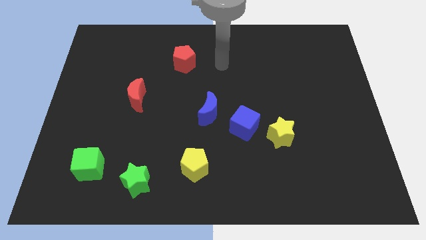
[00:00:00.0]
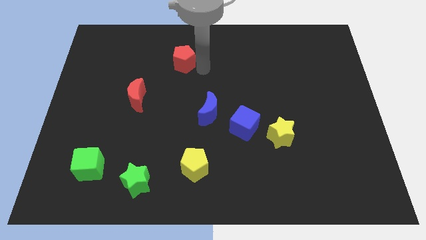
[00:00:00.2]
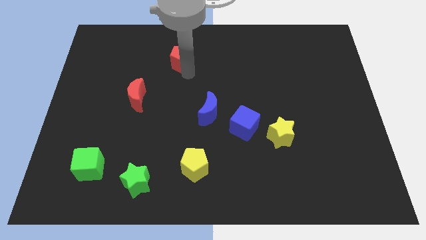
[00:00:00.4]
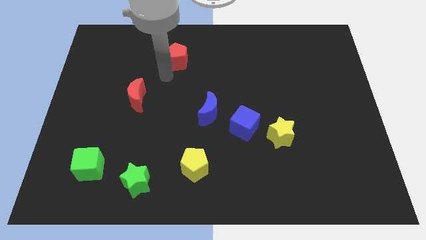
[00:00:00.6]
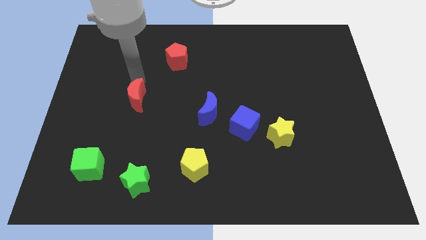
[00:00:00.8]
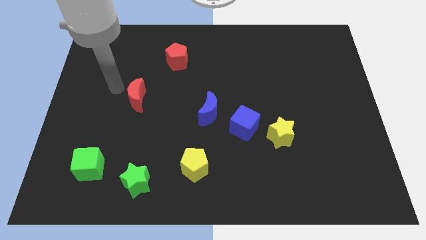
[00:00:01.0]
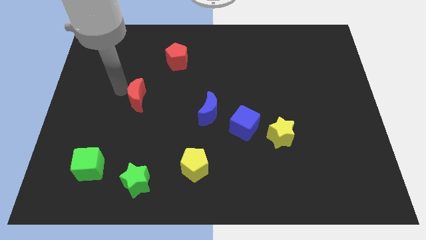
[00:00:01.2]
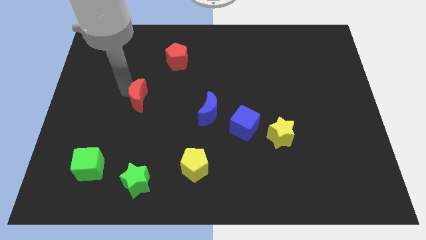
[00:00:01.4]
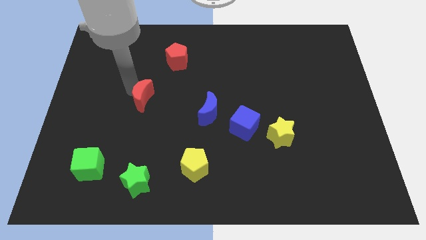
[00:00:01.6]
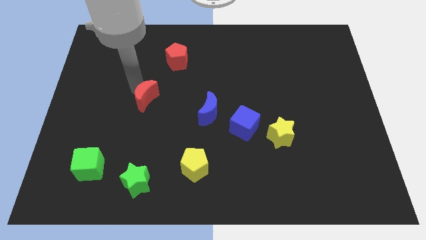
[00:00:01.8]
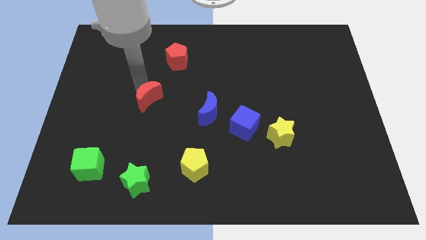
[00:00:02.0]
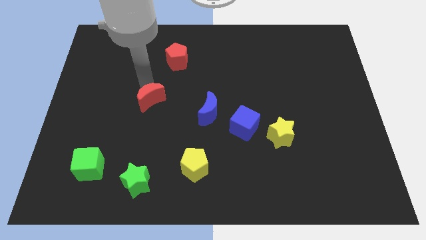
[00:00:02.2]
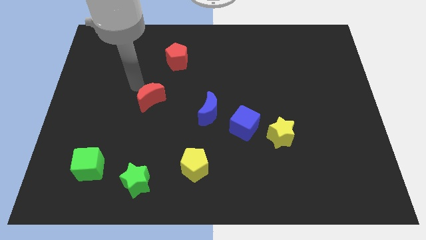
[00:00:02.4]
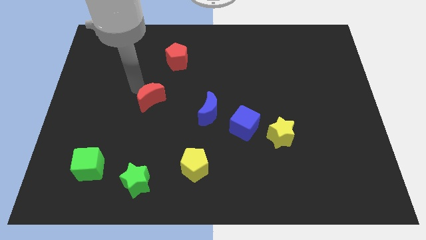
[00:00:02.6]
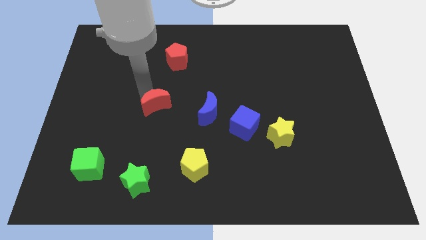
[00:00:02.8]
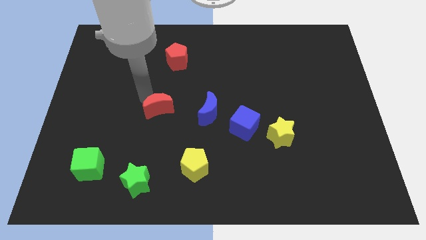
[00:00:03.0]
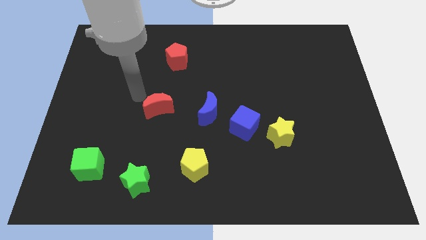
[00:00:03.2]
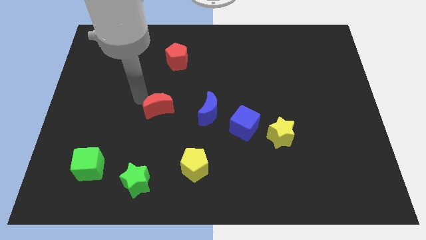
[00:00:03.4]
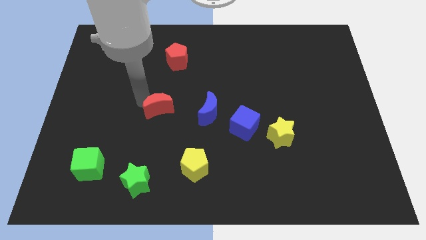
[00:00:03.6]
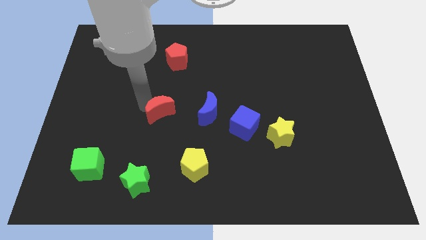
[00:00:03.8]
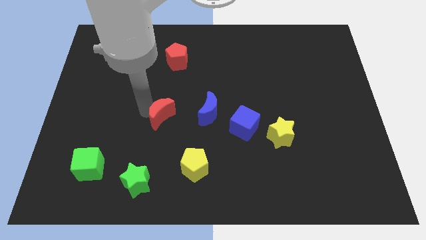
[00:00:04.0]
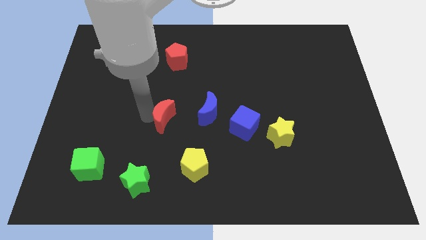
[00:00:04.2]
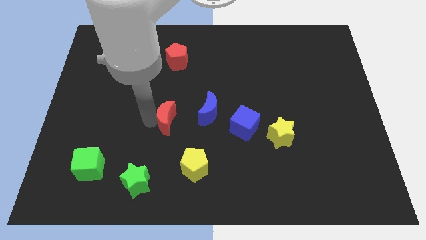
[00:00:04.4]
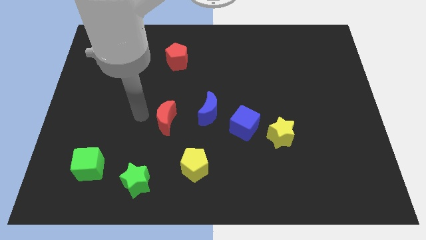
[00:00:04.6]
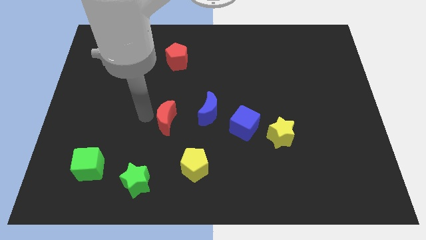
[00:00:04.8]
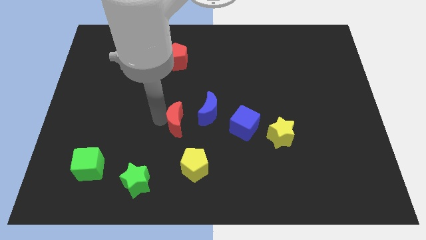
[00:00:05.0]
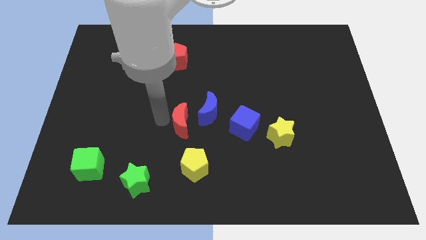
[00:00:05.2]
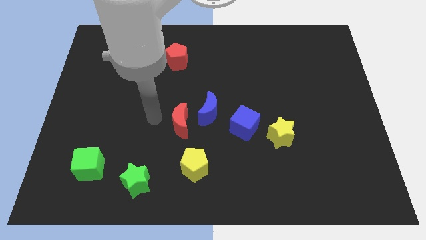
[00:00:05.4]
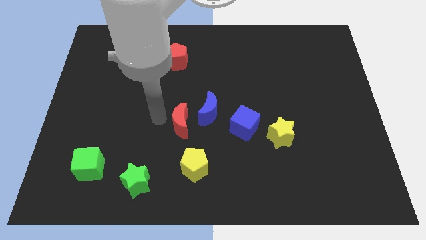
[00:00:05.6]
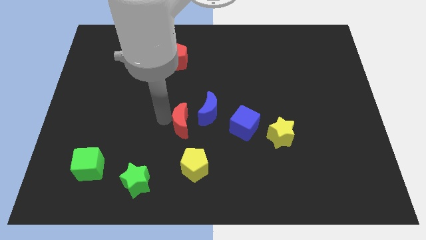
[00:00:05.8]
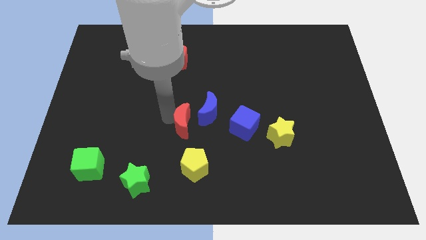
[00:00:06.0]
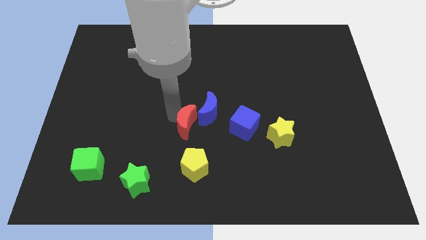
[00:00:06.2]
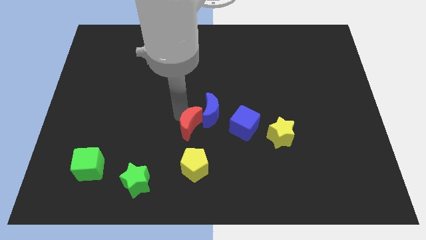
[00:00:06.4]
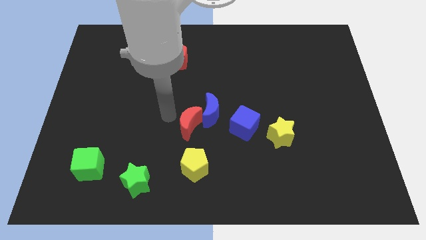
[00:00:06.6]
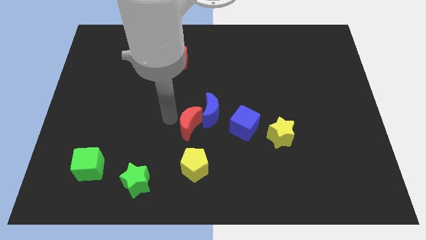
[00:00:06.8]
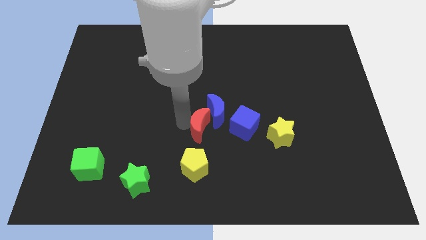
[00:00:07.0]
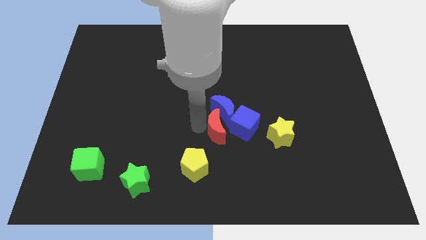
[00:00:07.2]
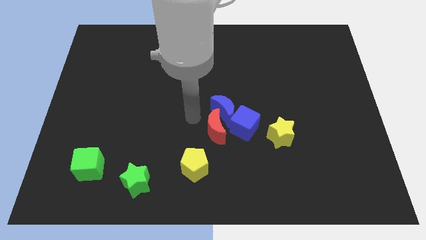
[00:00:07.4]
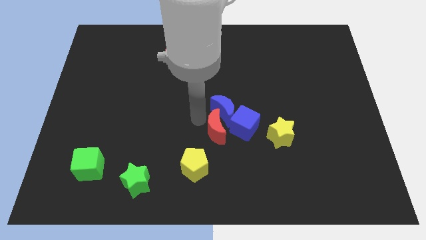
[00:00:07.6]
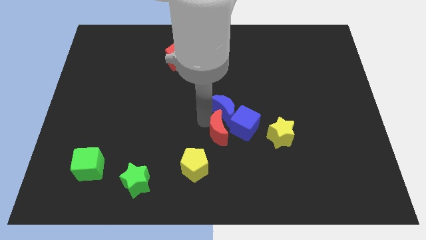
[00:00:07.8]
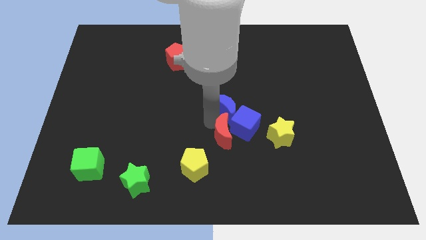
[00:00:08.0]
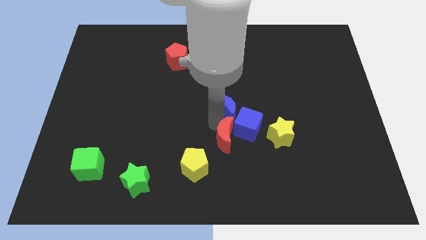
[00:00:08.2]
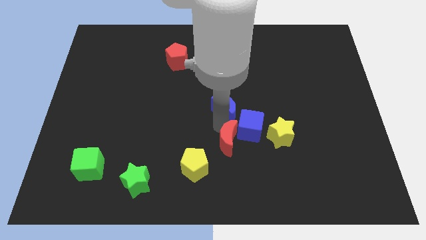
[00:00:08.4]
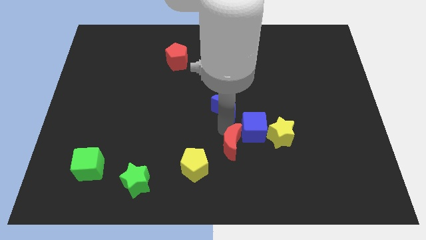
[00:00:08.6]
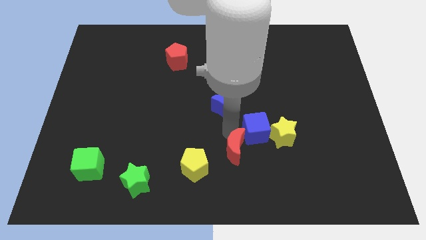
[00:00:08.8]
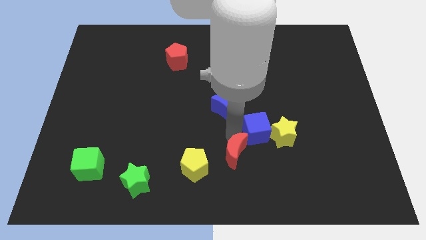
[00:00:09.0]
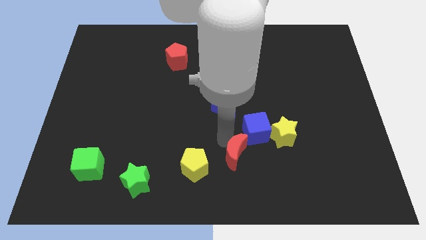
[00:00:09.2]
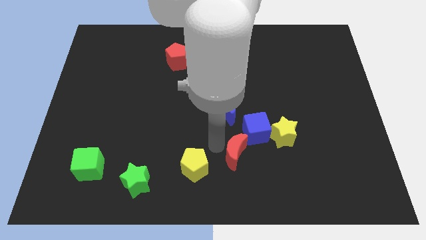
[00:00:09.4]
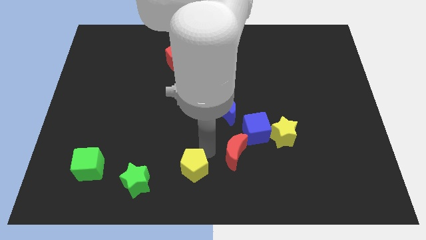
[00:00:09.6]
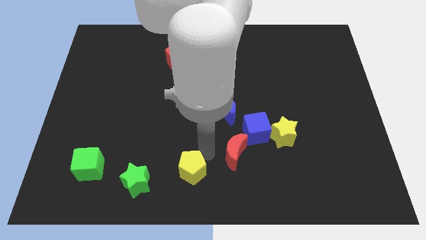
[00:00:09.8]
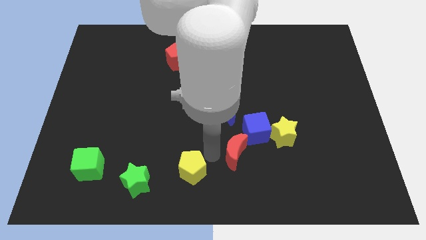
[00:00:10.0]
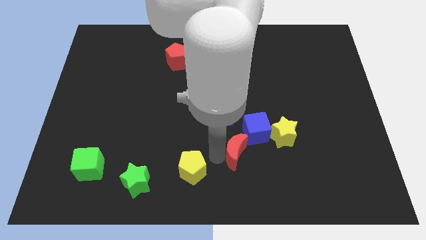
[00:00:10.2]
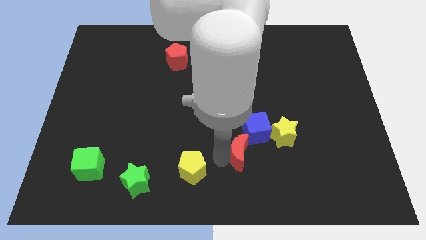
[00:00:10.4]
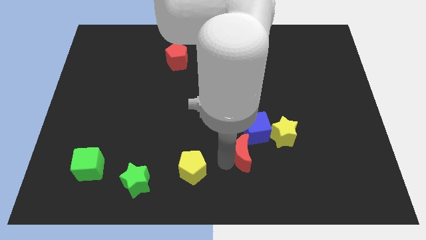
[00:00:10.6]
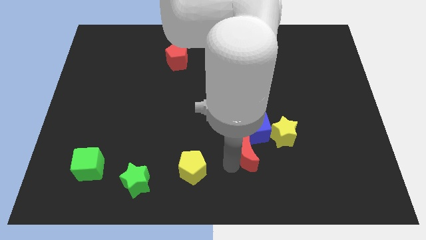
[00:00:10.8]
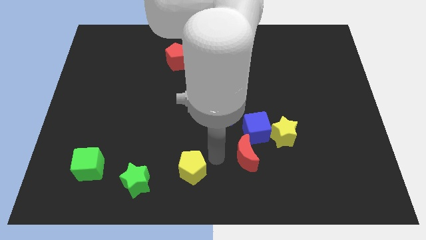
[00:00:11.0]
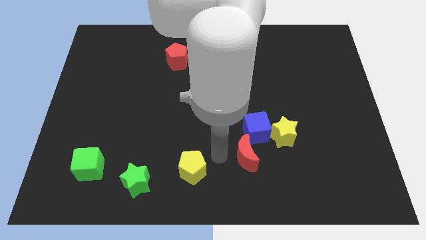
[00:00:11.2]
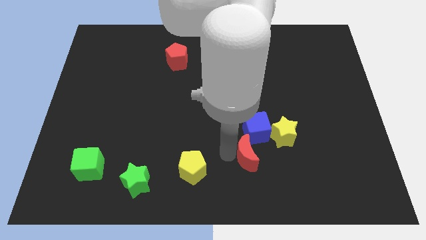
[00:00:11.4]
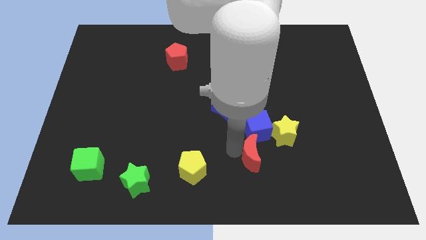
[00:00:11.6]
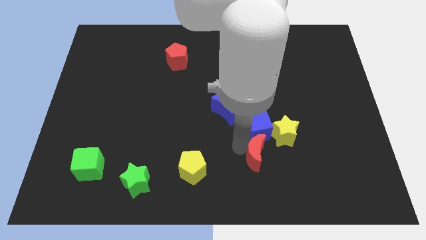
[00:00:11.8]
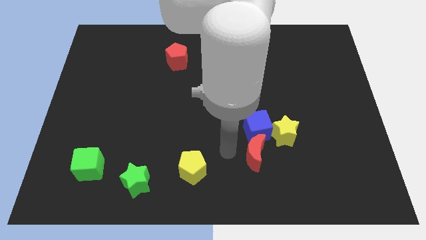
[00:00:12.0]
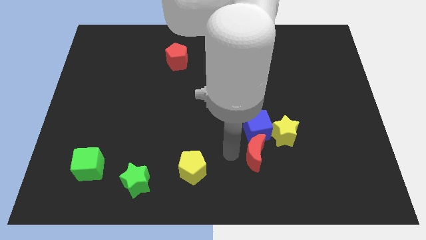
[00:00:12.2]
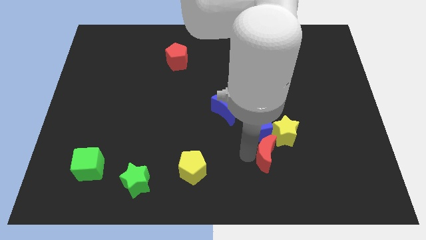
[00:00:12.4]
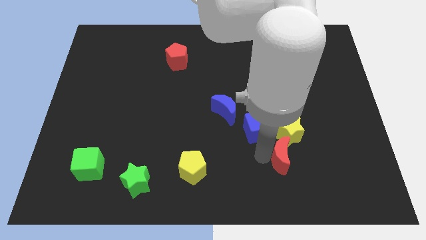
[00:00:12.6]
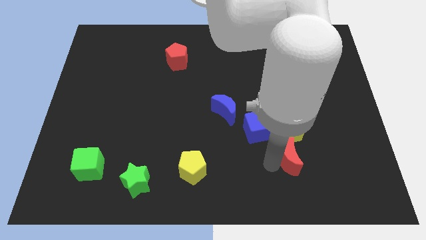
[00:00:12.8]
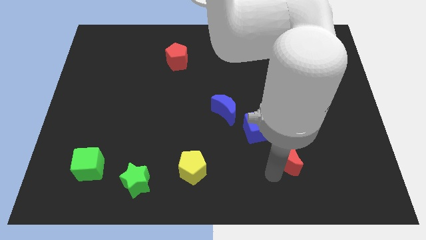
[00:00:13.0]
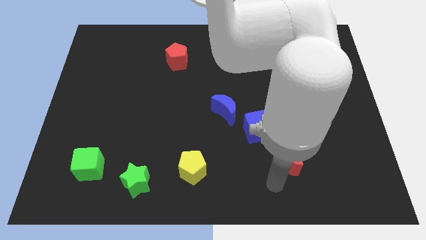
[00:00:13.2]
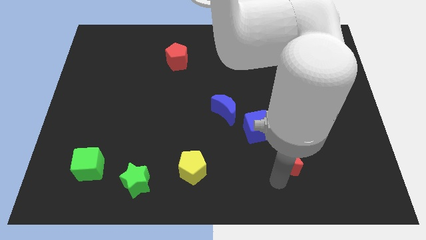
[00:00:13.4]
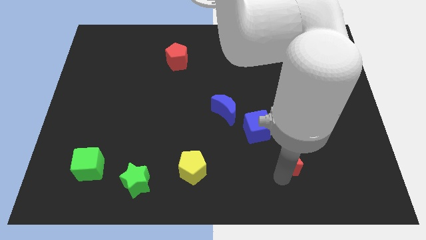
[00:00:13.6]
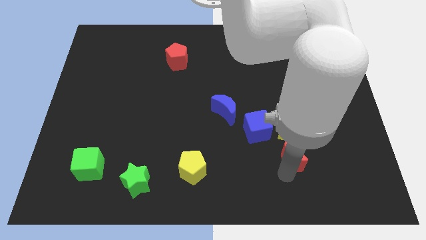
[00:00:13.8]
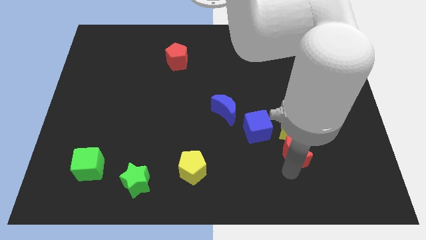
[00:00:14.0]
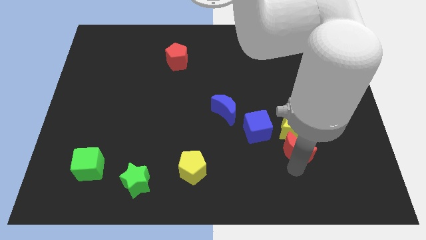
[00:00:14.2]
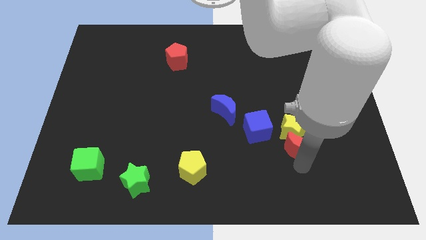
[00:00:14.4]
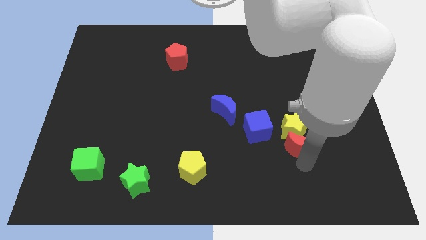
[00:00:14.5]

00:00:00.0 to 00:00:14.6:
move the red moon to the right side of the blue cube
